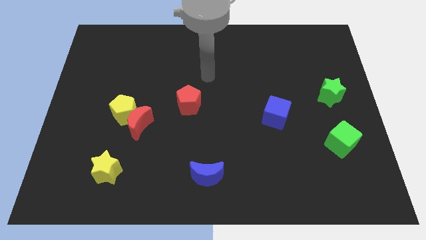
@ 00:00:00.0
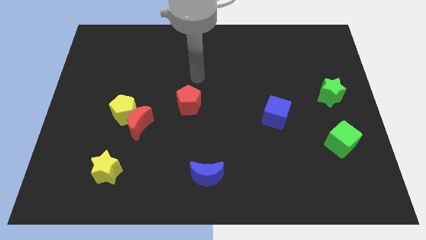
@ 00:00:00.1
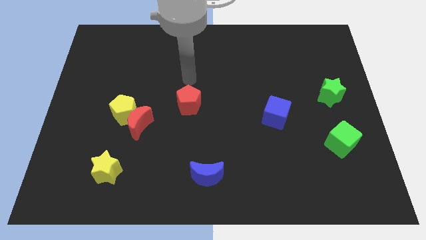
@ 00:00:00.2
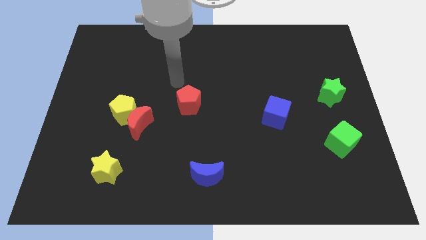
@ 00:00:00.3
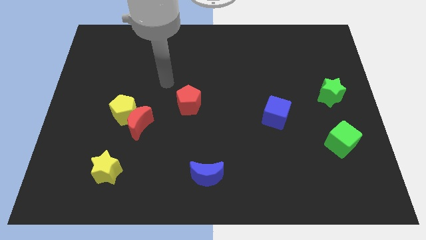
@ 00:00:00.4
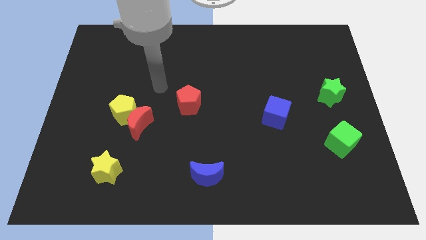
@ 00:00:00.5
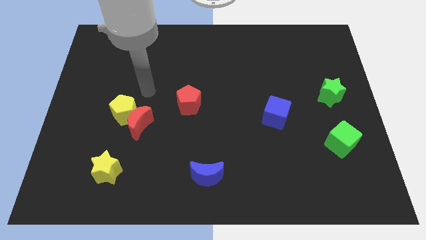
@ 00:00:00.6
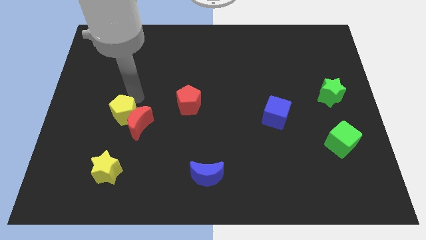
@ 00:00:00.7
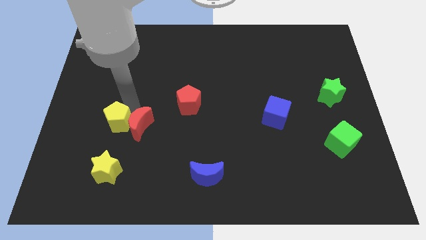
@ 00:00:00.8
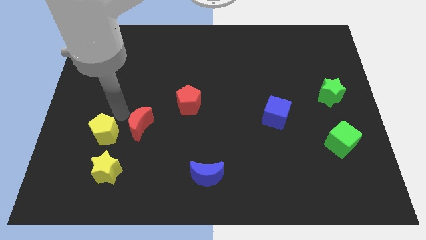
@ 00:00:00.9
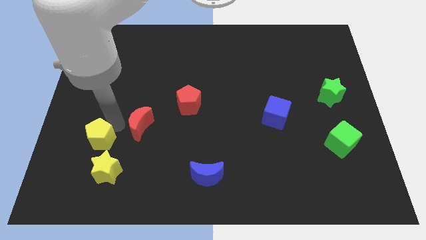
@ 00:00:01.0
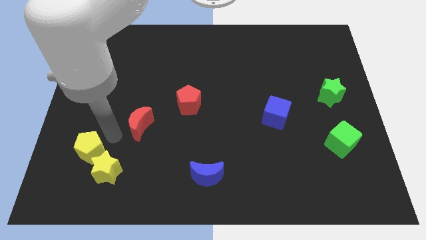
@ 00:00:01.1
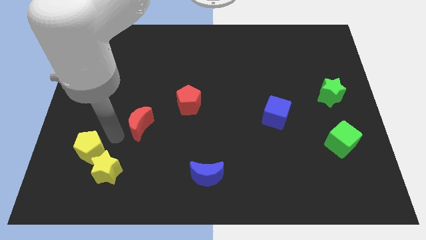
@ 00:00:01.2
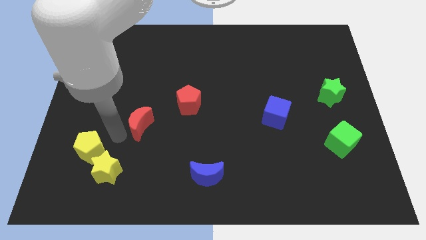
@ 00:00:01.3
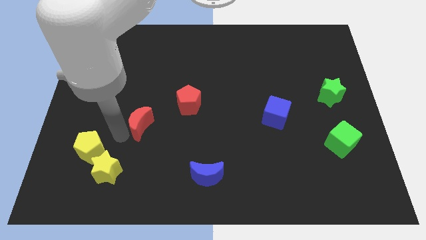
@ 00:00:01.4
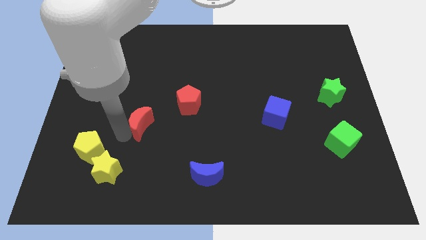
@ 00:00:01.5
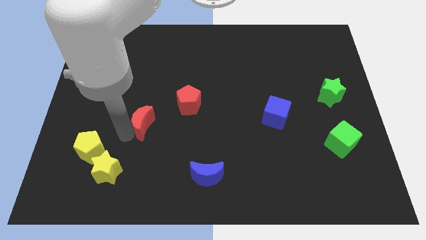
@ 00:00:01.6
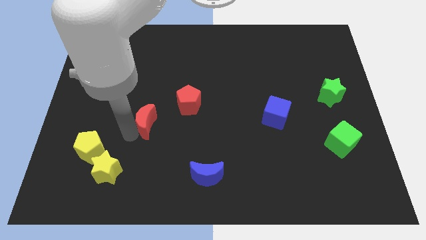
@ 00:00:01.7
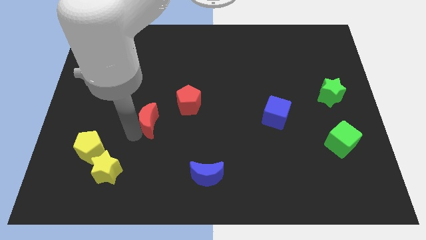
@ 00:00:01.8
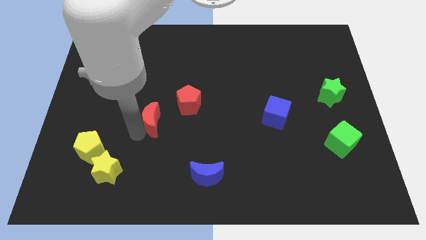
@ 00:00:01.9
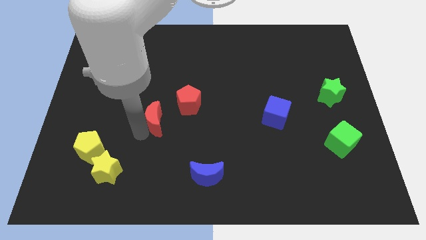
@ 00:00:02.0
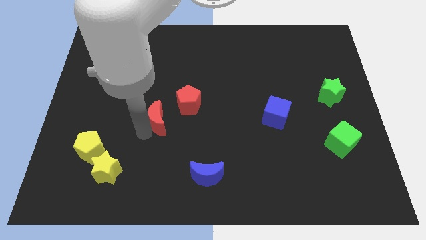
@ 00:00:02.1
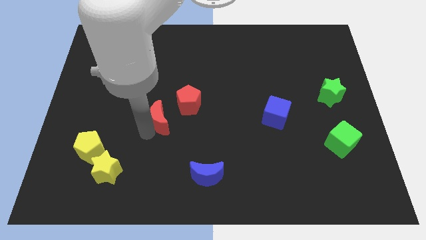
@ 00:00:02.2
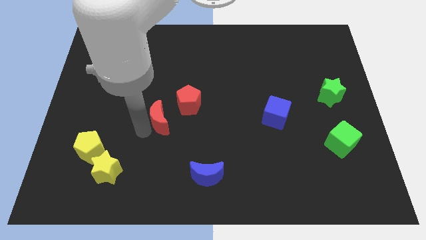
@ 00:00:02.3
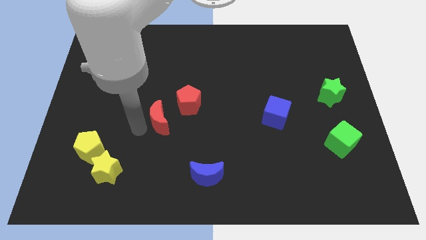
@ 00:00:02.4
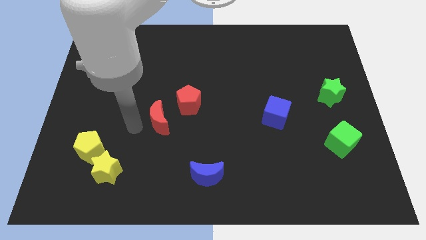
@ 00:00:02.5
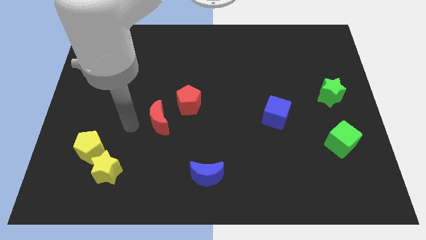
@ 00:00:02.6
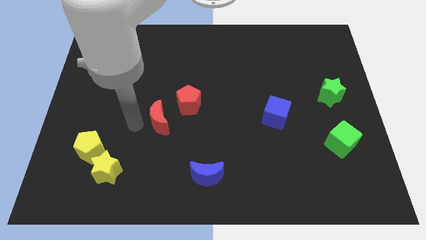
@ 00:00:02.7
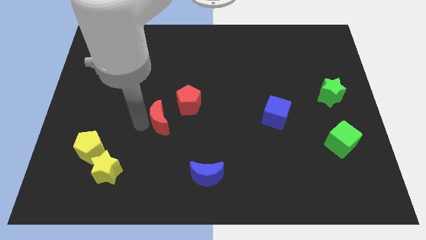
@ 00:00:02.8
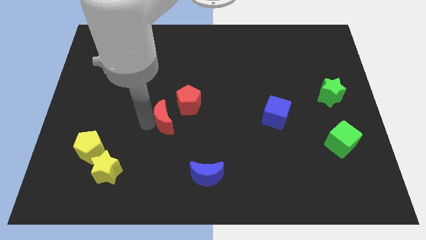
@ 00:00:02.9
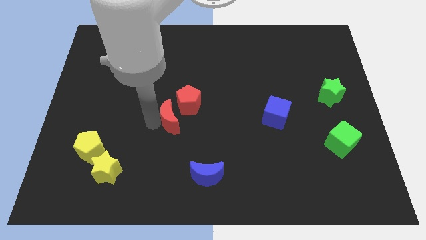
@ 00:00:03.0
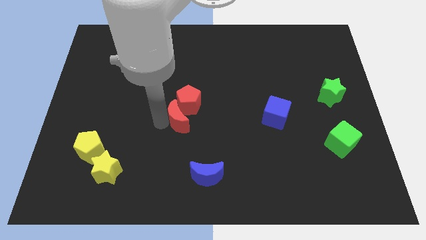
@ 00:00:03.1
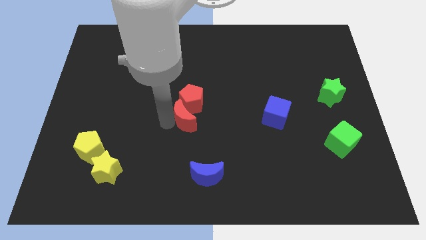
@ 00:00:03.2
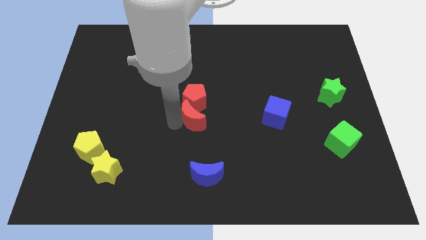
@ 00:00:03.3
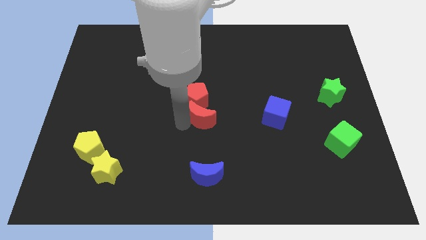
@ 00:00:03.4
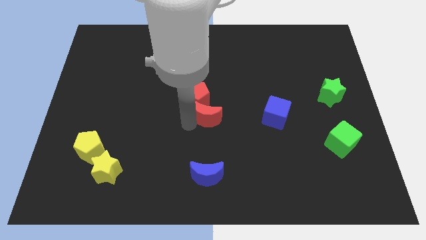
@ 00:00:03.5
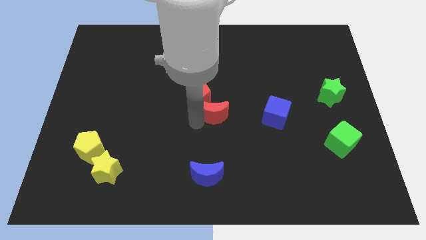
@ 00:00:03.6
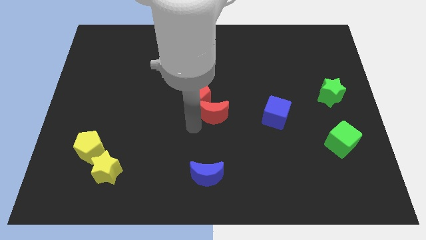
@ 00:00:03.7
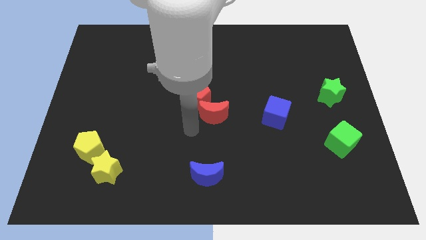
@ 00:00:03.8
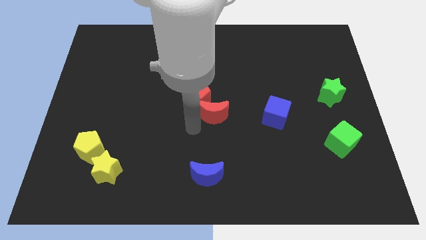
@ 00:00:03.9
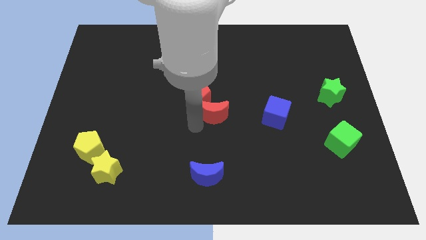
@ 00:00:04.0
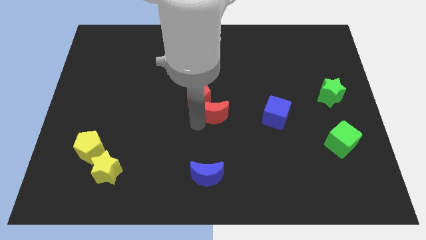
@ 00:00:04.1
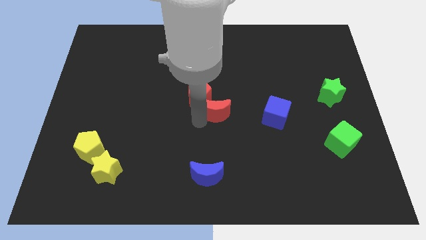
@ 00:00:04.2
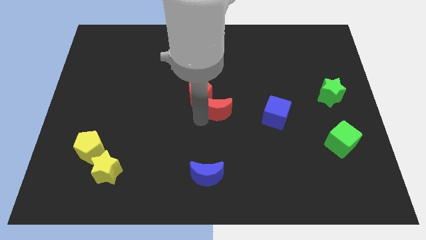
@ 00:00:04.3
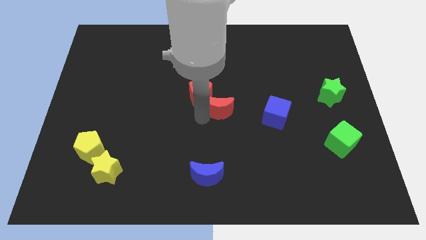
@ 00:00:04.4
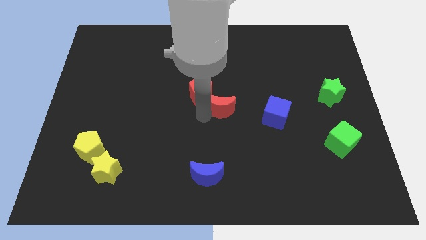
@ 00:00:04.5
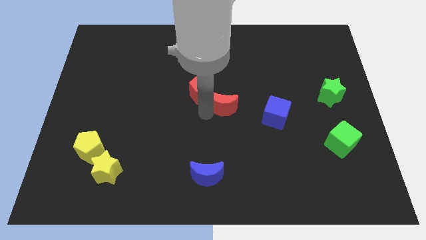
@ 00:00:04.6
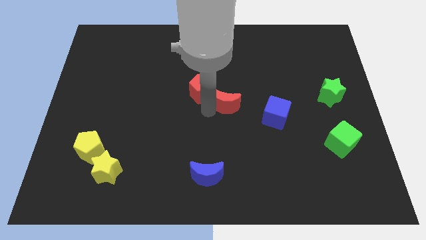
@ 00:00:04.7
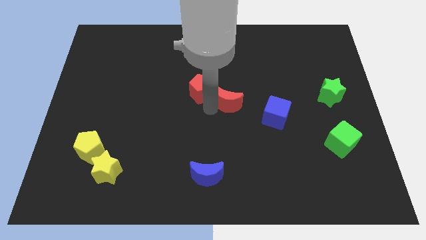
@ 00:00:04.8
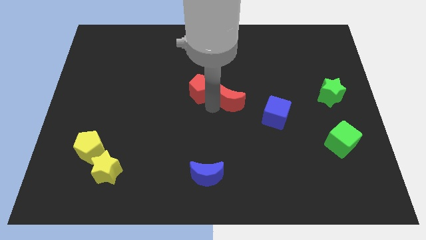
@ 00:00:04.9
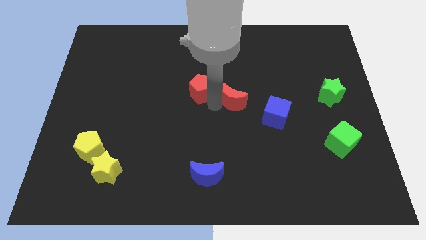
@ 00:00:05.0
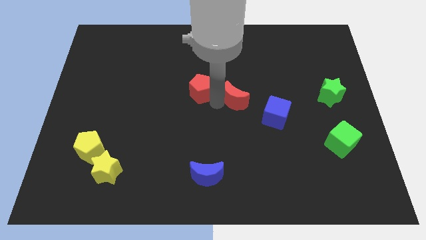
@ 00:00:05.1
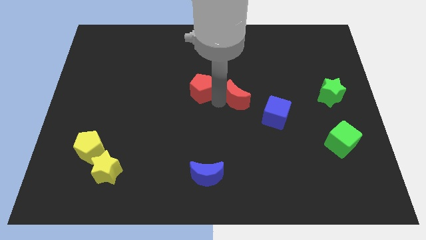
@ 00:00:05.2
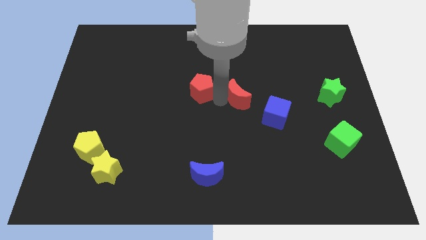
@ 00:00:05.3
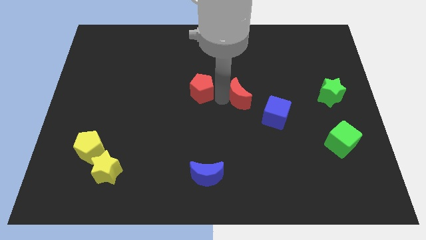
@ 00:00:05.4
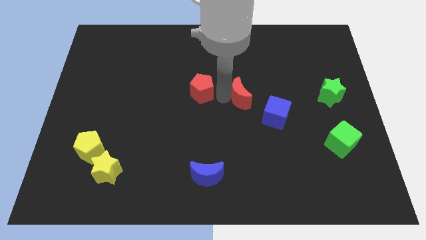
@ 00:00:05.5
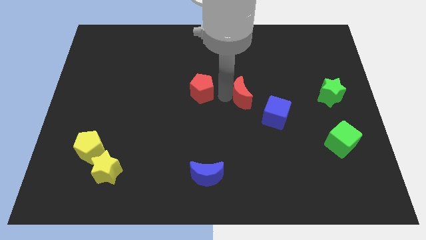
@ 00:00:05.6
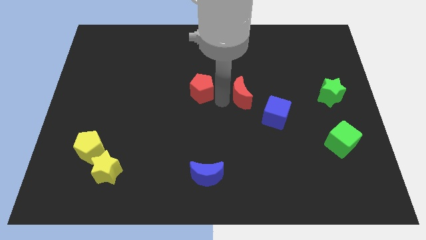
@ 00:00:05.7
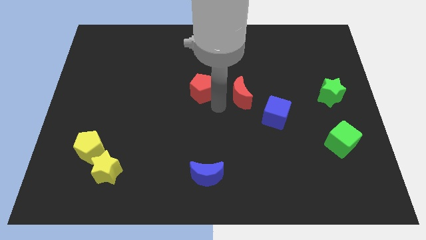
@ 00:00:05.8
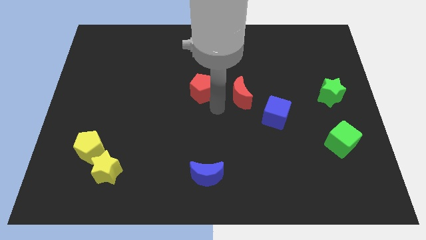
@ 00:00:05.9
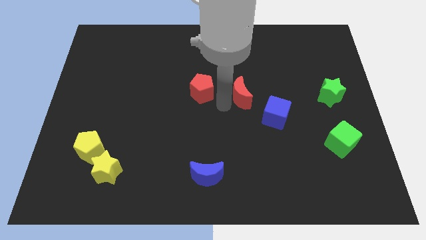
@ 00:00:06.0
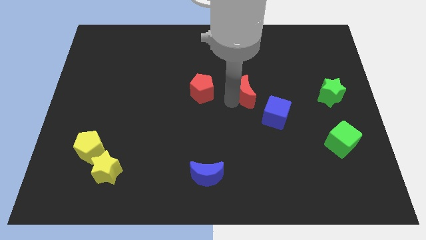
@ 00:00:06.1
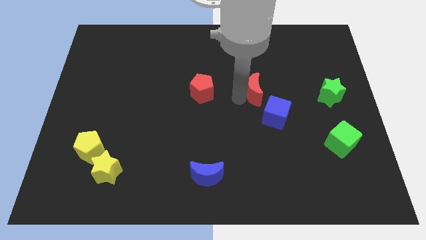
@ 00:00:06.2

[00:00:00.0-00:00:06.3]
move the red moon to the top side of the blue cube

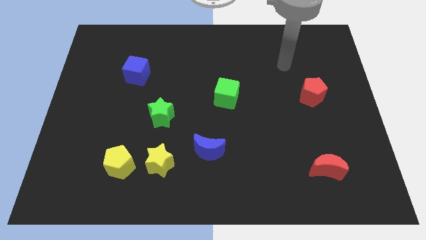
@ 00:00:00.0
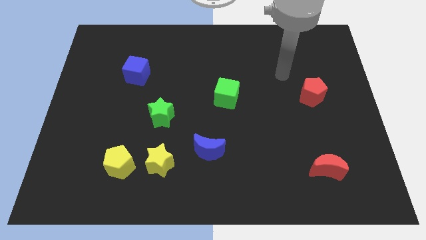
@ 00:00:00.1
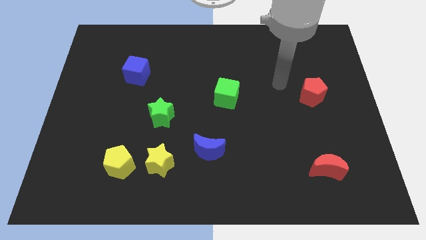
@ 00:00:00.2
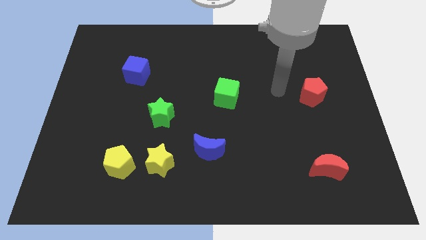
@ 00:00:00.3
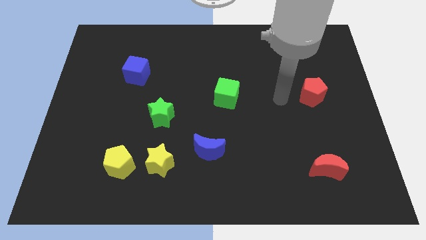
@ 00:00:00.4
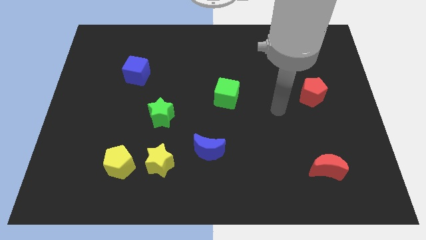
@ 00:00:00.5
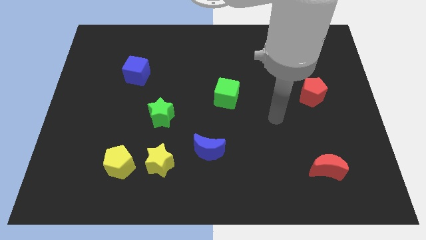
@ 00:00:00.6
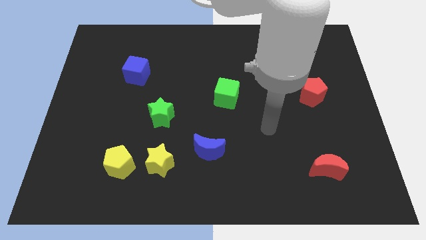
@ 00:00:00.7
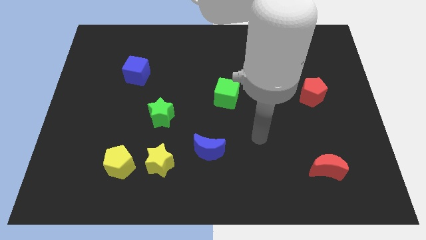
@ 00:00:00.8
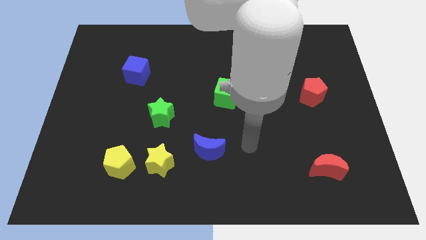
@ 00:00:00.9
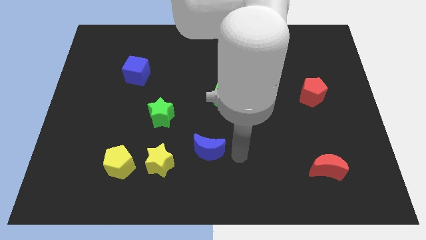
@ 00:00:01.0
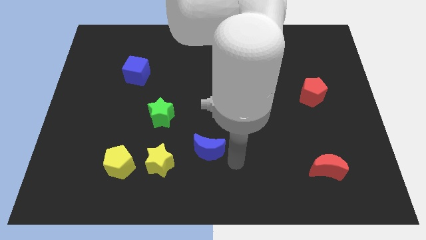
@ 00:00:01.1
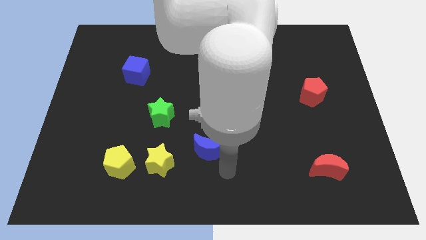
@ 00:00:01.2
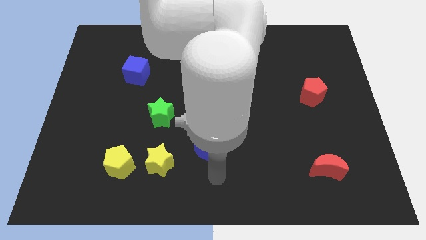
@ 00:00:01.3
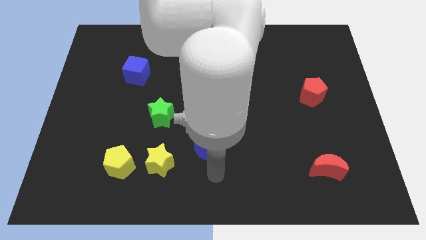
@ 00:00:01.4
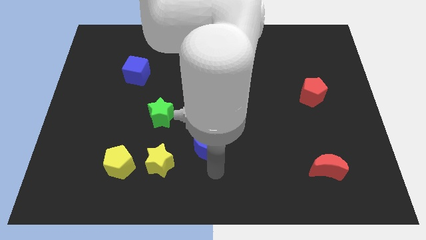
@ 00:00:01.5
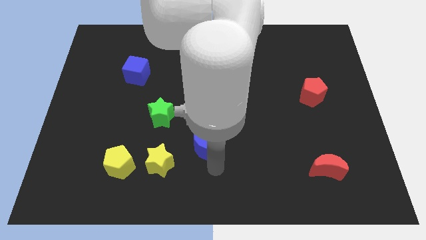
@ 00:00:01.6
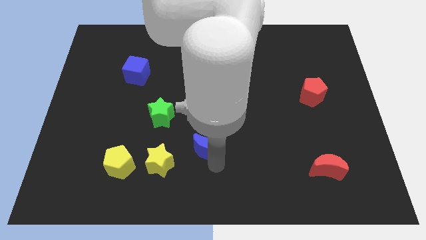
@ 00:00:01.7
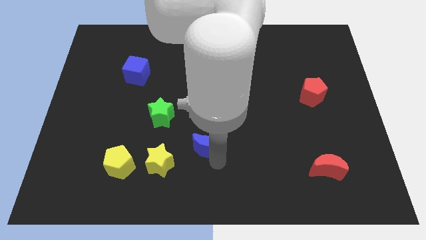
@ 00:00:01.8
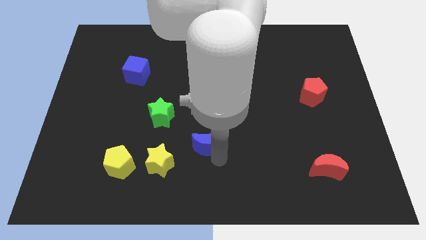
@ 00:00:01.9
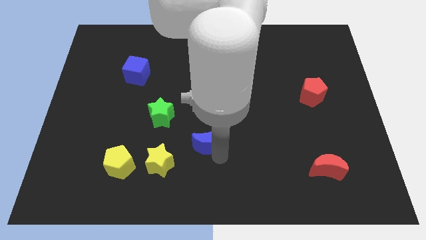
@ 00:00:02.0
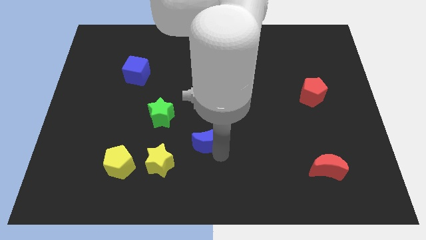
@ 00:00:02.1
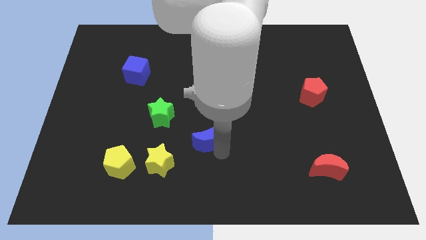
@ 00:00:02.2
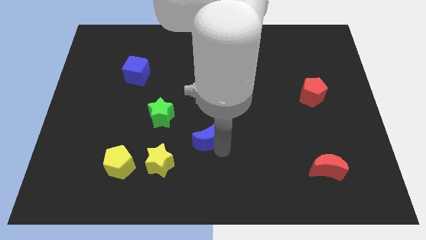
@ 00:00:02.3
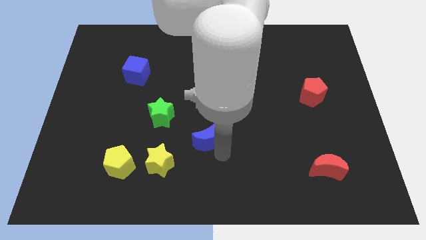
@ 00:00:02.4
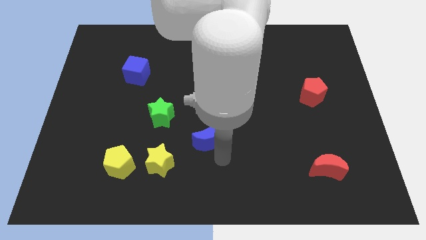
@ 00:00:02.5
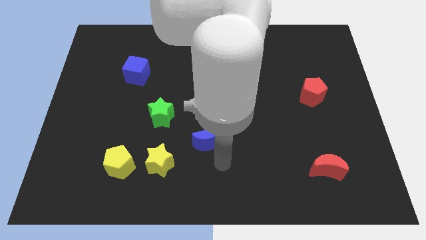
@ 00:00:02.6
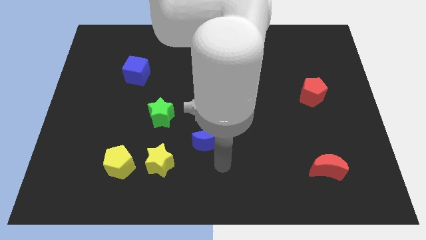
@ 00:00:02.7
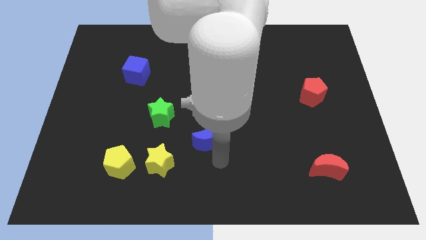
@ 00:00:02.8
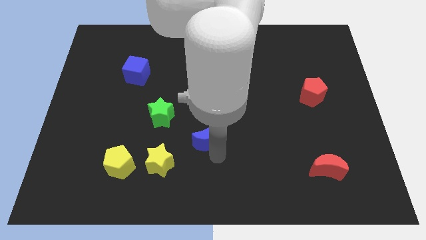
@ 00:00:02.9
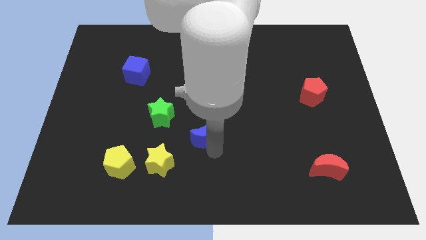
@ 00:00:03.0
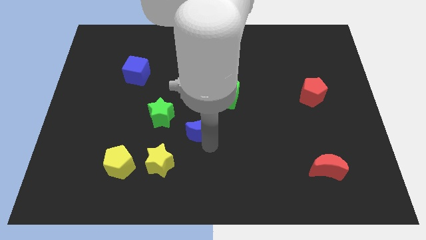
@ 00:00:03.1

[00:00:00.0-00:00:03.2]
move the blue moon diagonally down and to the left of the green cube
